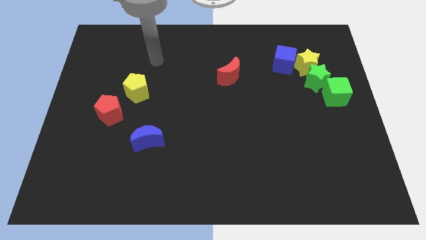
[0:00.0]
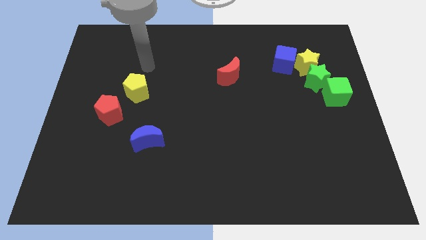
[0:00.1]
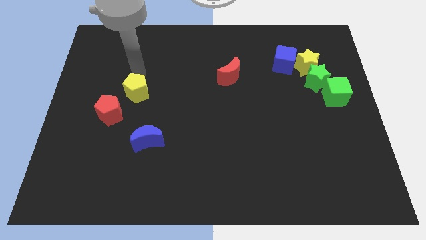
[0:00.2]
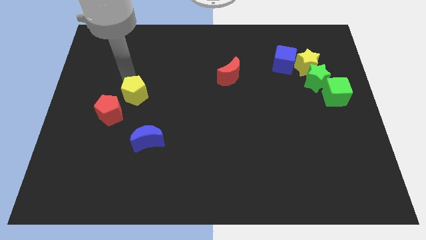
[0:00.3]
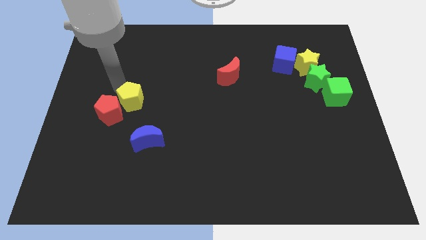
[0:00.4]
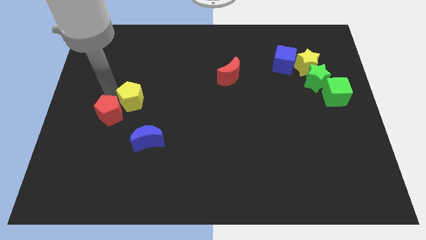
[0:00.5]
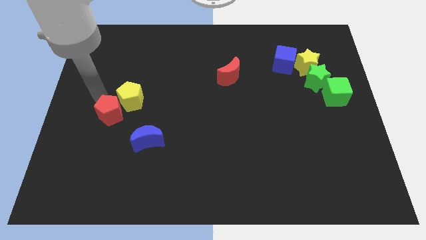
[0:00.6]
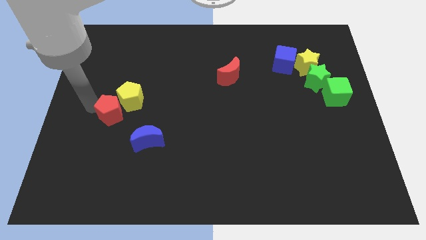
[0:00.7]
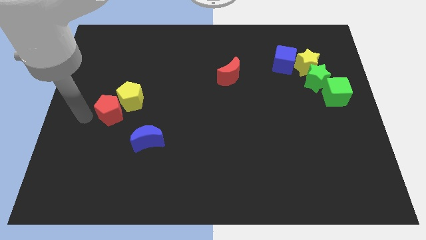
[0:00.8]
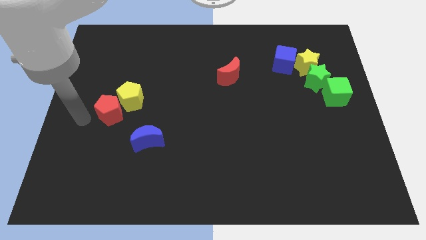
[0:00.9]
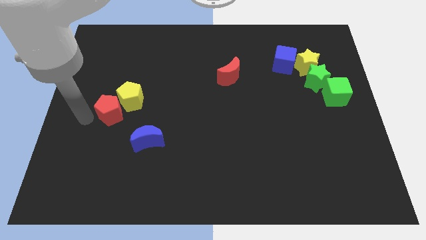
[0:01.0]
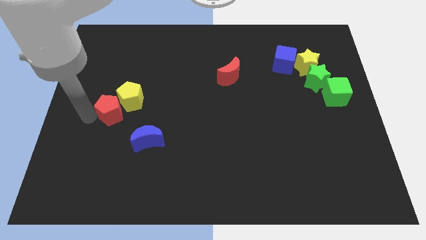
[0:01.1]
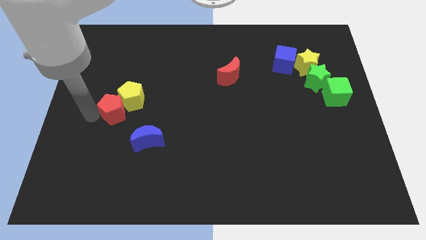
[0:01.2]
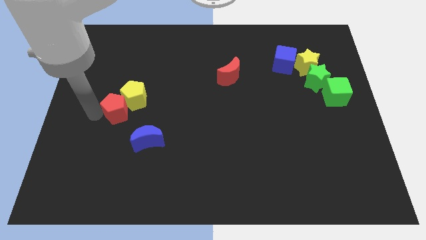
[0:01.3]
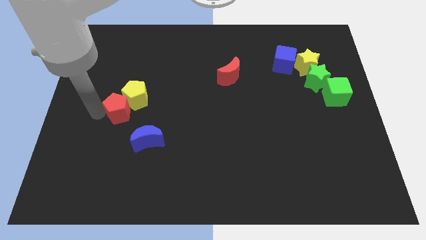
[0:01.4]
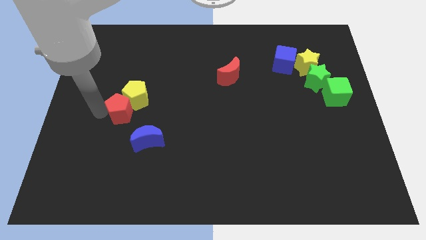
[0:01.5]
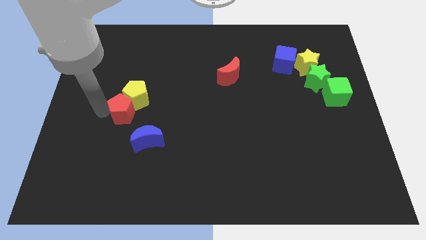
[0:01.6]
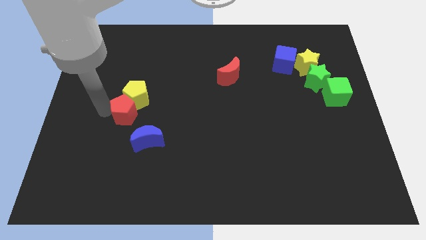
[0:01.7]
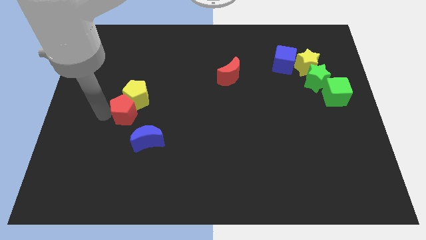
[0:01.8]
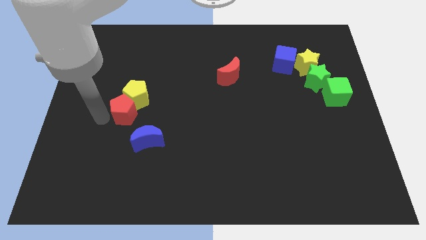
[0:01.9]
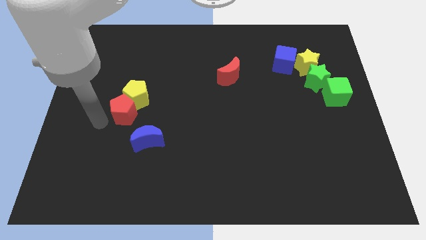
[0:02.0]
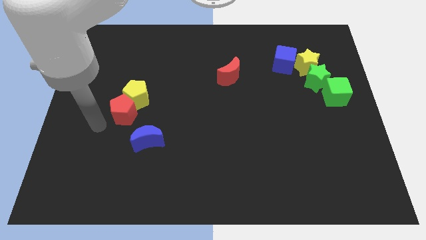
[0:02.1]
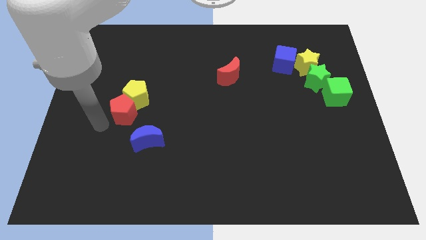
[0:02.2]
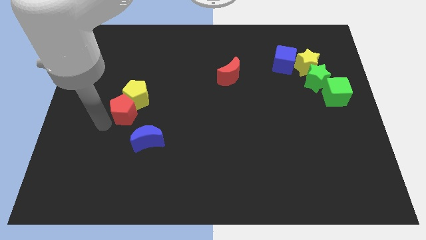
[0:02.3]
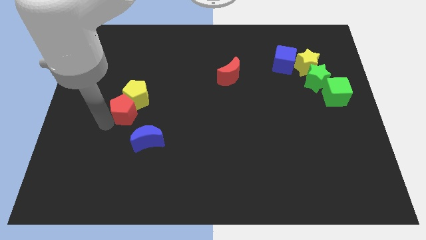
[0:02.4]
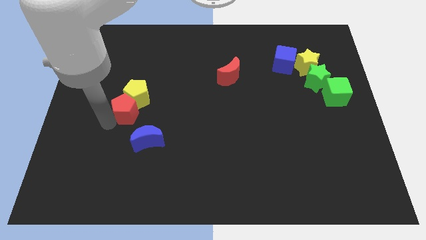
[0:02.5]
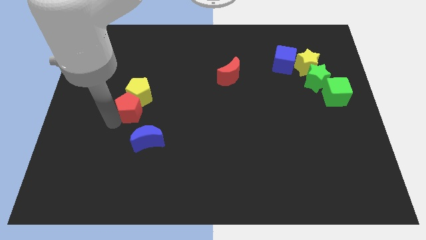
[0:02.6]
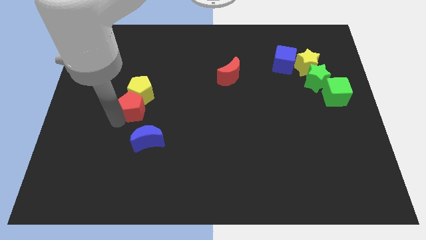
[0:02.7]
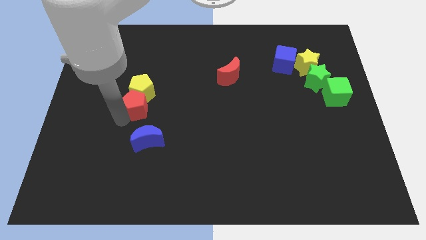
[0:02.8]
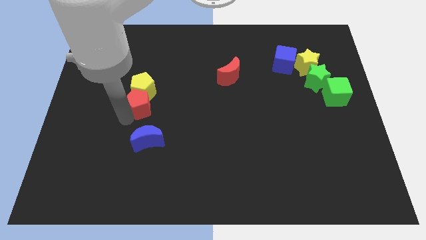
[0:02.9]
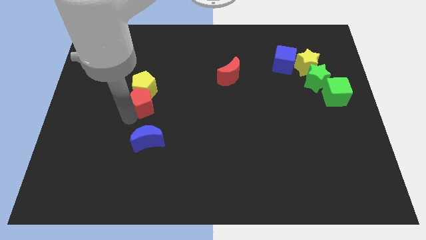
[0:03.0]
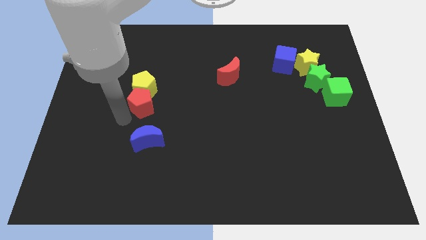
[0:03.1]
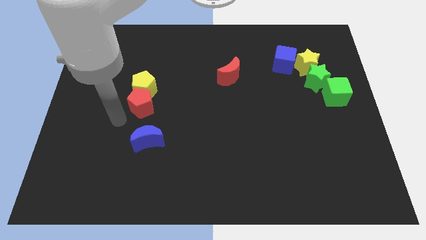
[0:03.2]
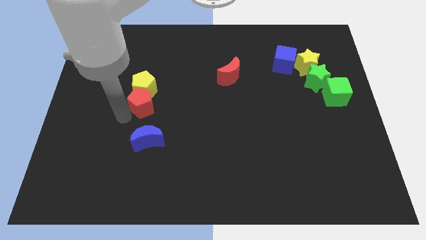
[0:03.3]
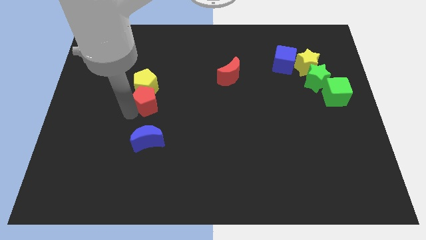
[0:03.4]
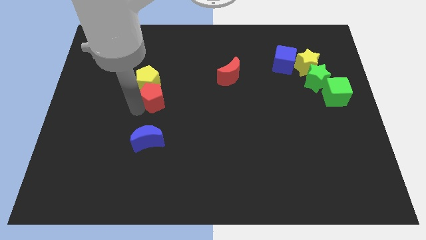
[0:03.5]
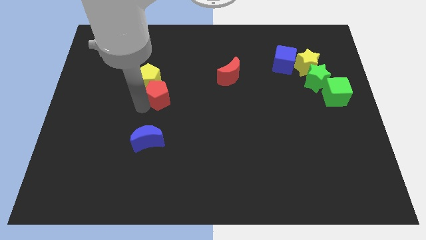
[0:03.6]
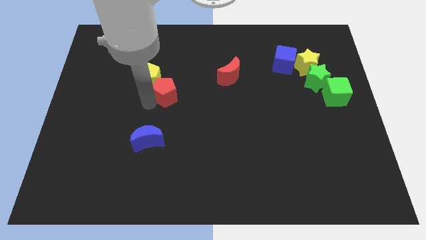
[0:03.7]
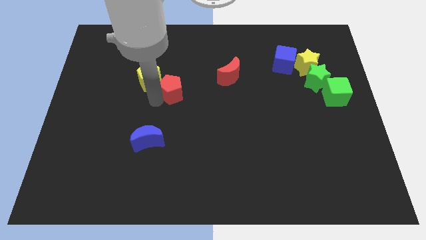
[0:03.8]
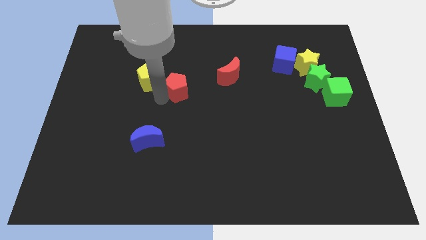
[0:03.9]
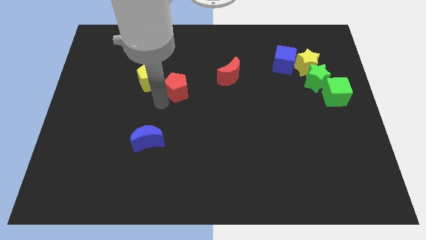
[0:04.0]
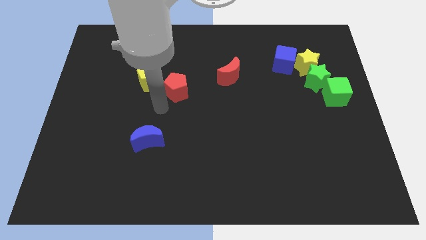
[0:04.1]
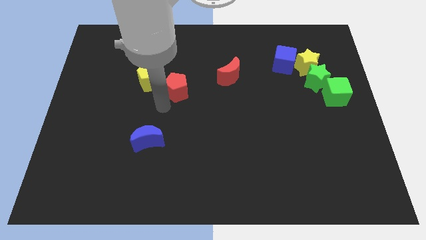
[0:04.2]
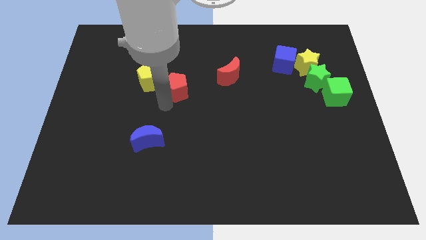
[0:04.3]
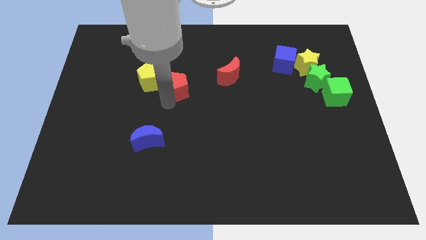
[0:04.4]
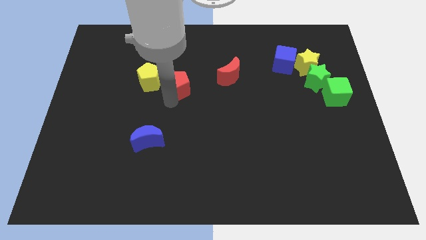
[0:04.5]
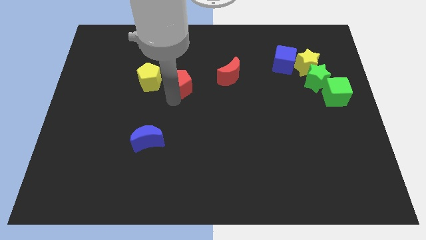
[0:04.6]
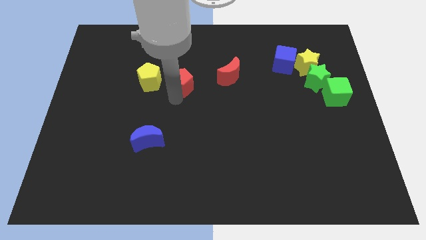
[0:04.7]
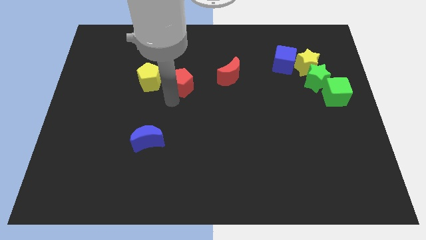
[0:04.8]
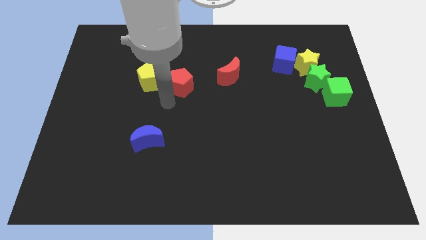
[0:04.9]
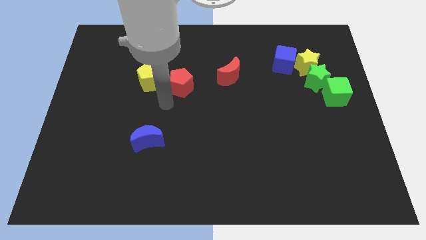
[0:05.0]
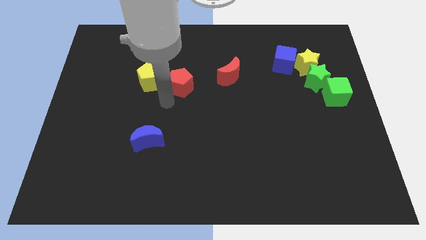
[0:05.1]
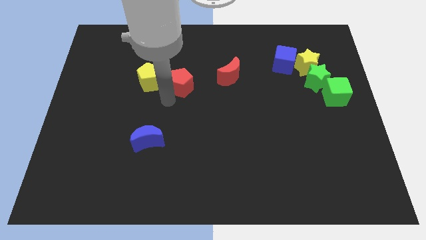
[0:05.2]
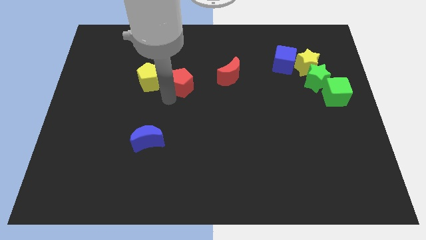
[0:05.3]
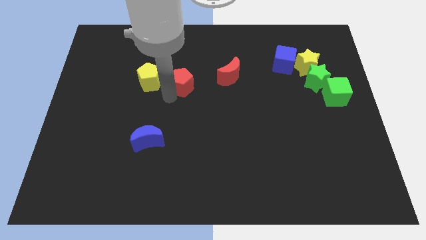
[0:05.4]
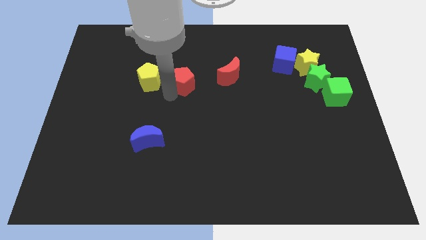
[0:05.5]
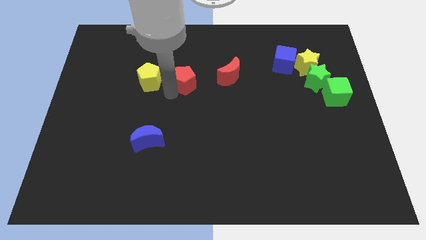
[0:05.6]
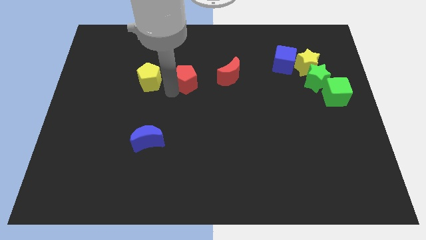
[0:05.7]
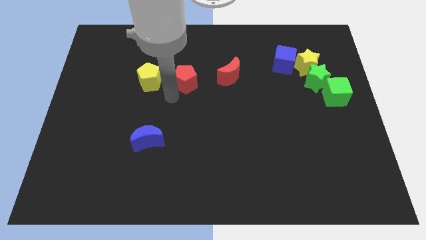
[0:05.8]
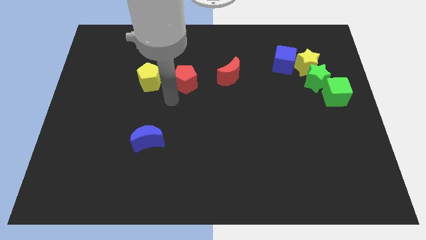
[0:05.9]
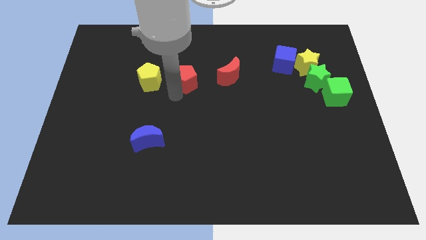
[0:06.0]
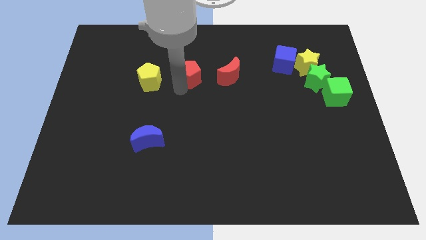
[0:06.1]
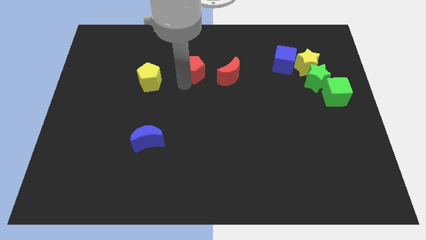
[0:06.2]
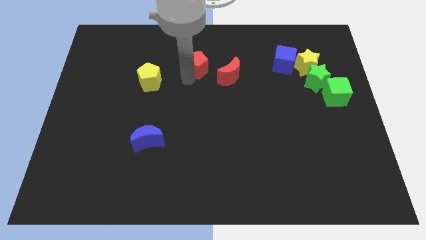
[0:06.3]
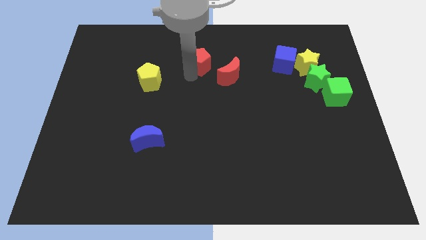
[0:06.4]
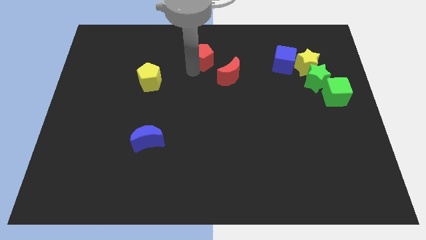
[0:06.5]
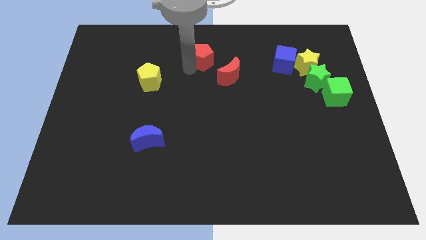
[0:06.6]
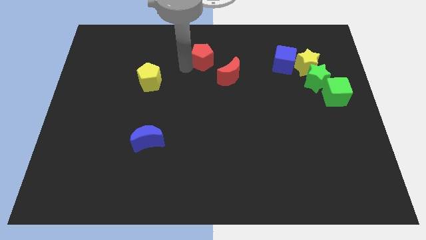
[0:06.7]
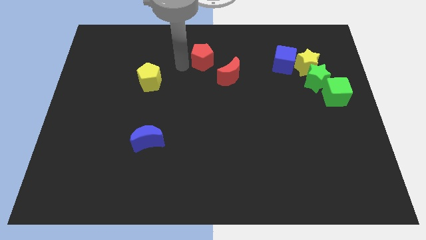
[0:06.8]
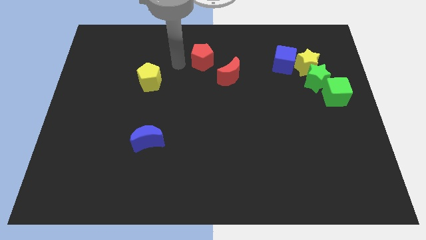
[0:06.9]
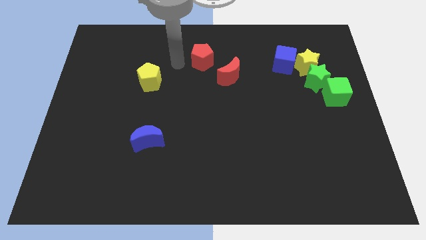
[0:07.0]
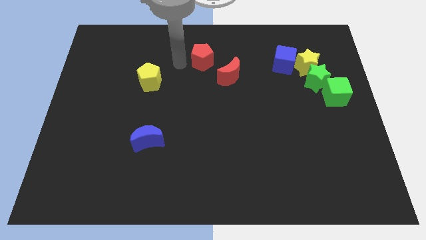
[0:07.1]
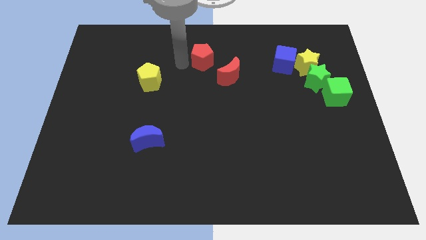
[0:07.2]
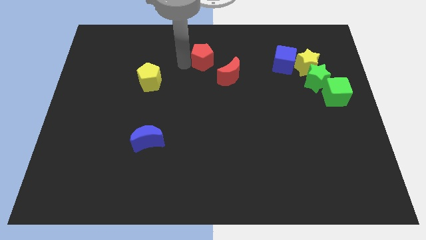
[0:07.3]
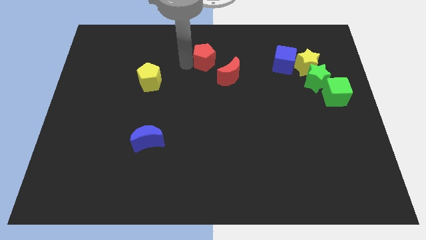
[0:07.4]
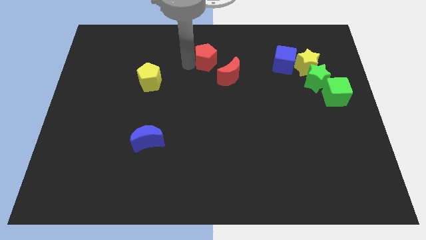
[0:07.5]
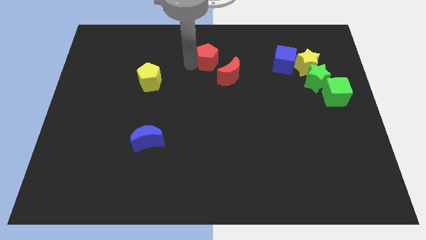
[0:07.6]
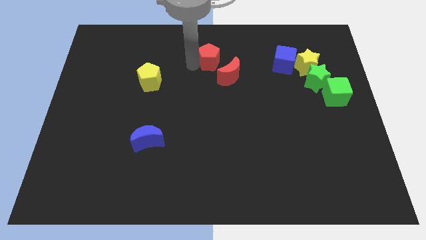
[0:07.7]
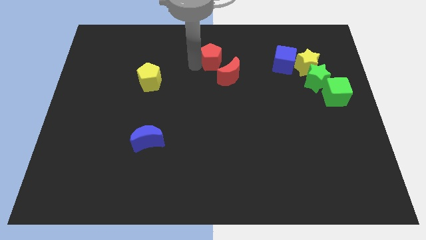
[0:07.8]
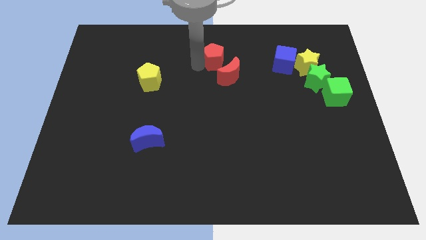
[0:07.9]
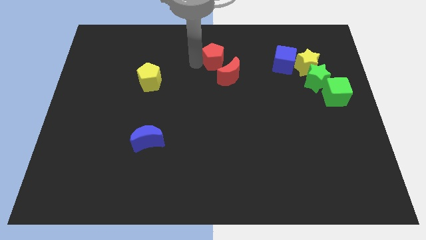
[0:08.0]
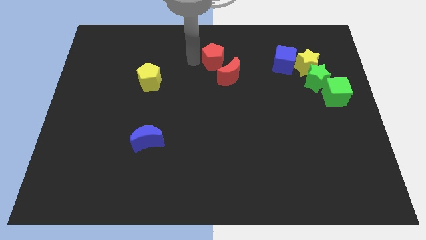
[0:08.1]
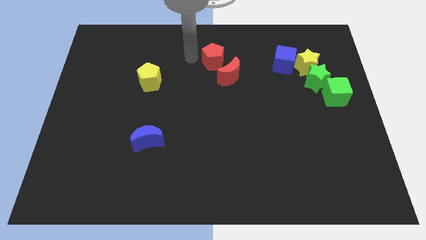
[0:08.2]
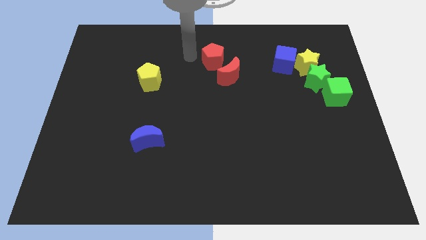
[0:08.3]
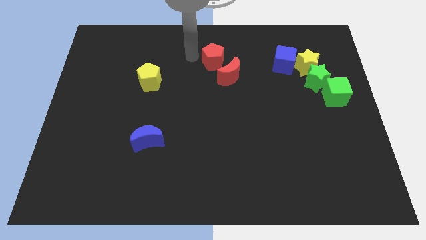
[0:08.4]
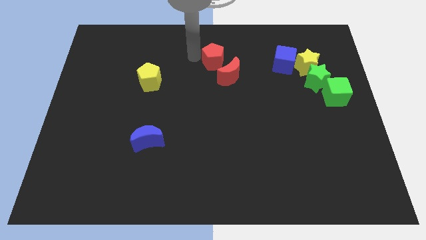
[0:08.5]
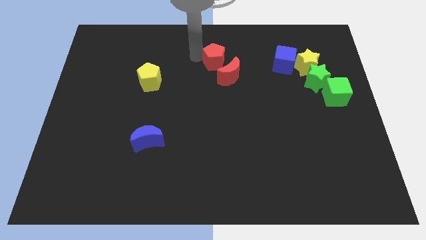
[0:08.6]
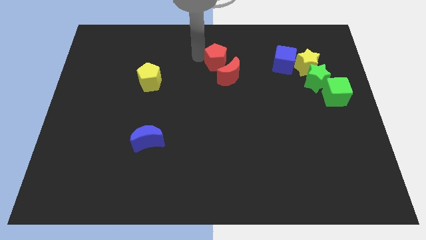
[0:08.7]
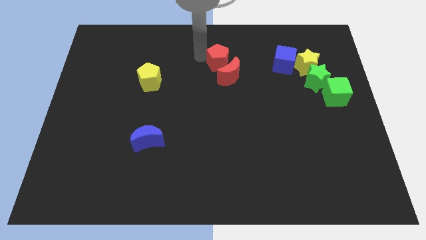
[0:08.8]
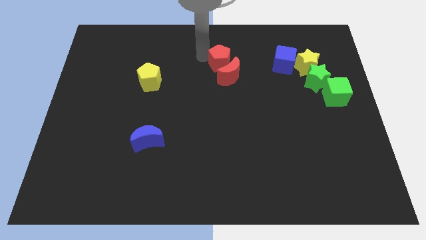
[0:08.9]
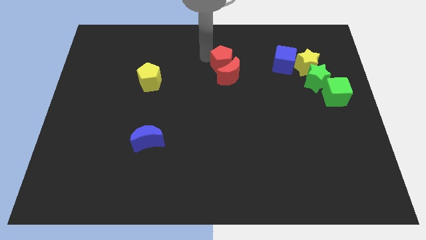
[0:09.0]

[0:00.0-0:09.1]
put the red pentagon to the top right of the red moon
